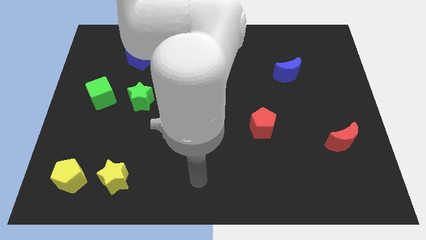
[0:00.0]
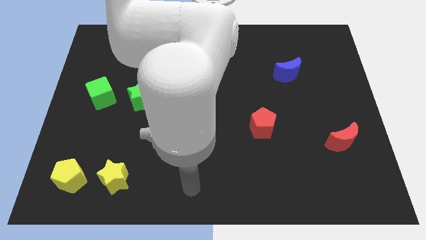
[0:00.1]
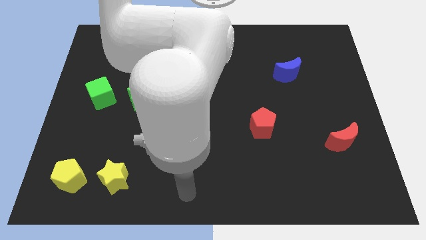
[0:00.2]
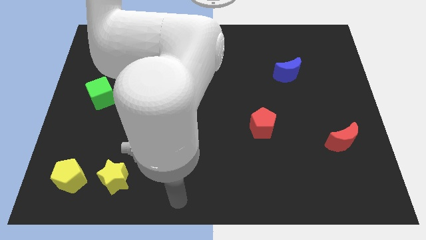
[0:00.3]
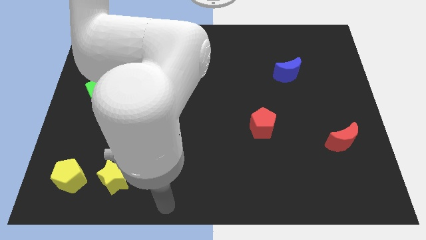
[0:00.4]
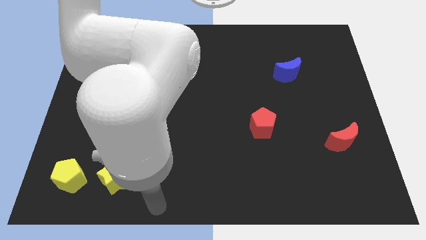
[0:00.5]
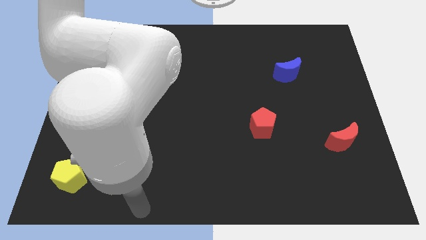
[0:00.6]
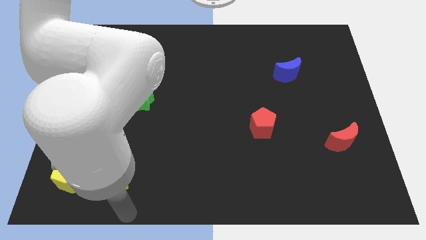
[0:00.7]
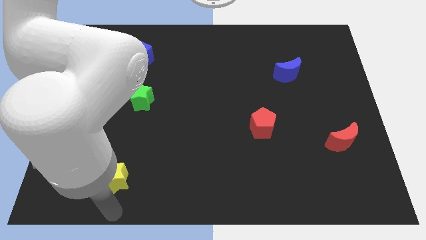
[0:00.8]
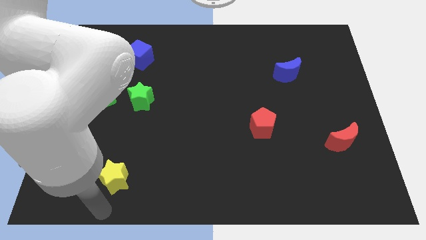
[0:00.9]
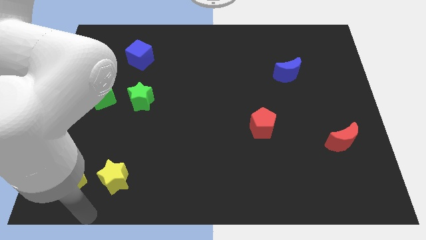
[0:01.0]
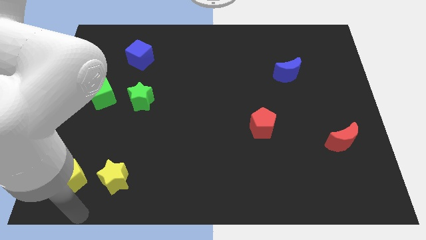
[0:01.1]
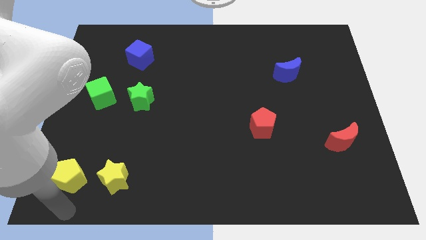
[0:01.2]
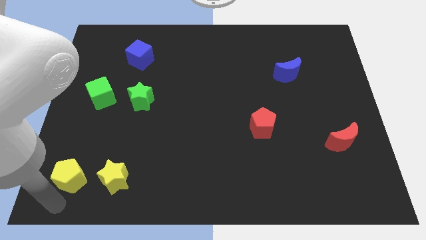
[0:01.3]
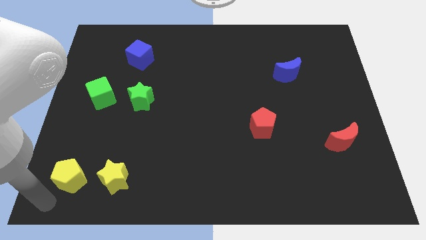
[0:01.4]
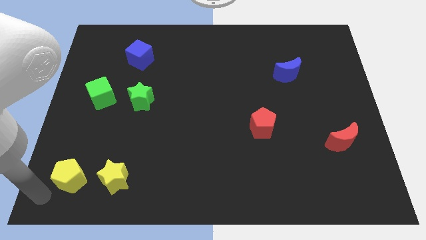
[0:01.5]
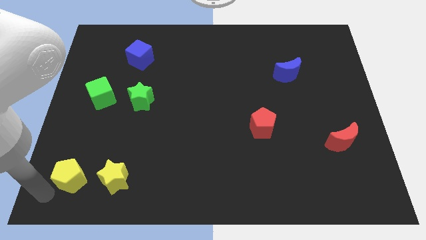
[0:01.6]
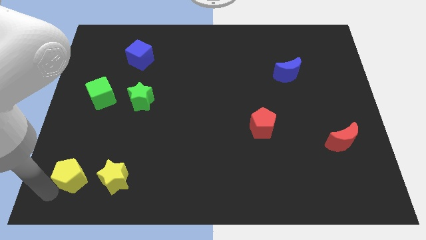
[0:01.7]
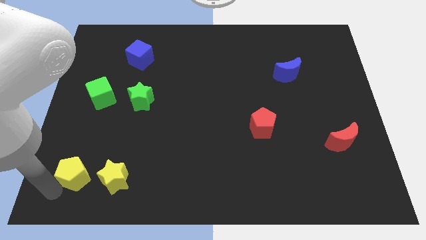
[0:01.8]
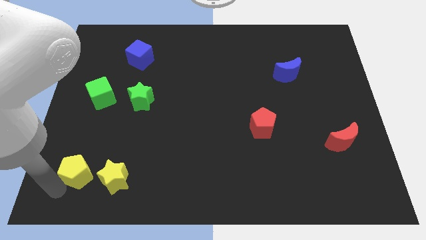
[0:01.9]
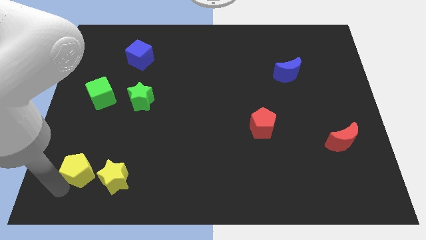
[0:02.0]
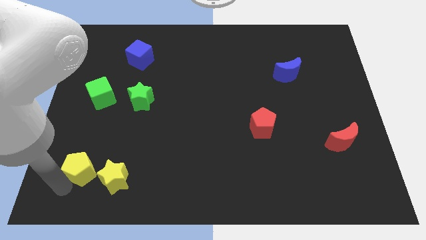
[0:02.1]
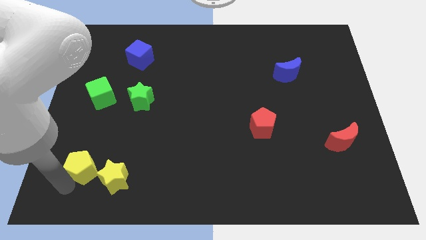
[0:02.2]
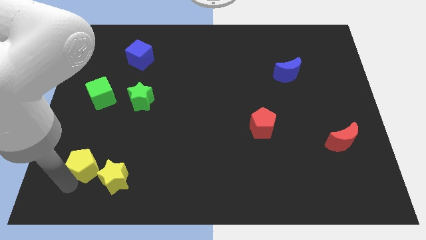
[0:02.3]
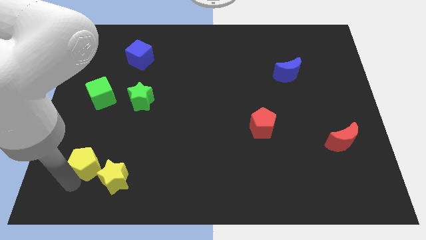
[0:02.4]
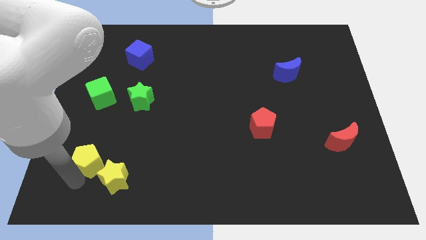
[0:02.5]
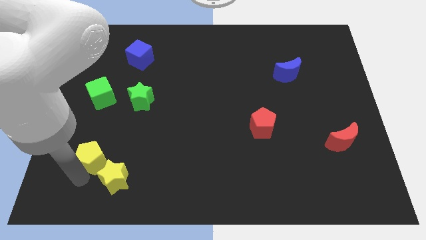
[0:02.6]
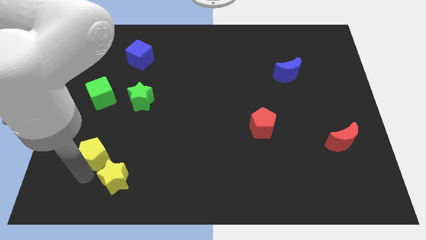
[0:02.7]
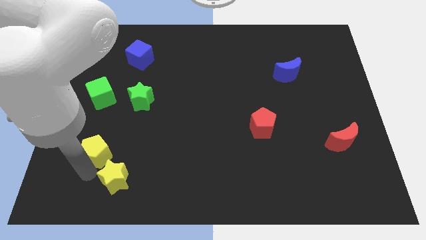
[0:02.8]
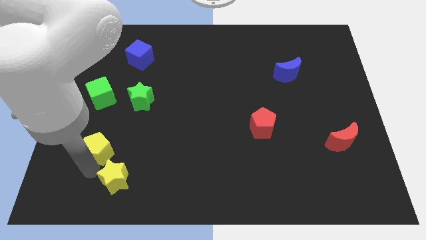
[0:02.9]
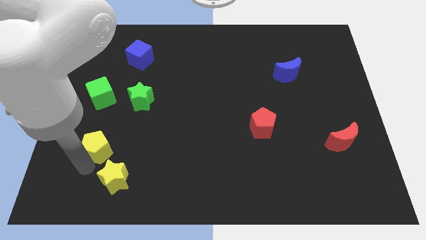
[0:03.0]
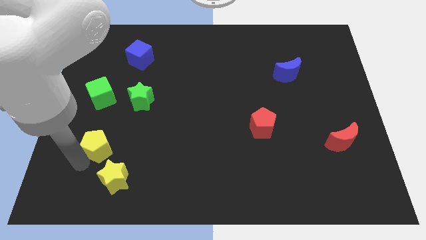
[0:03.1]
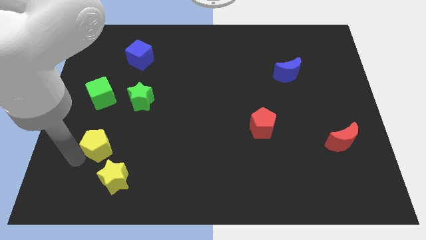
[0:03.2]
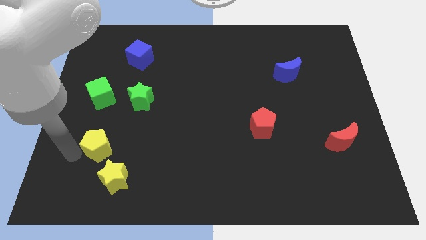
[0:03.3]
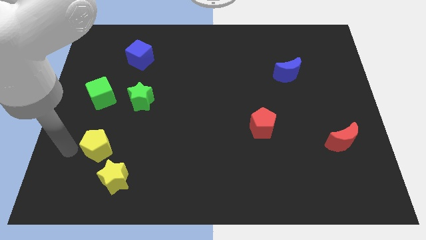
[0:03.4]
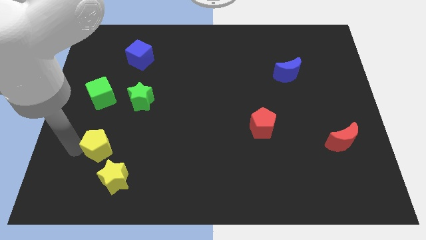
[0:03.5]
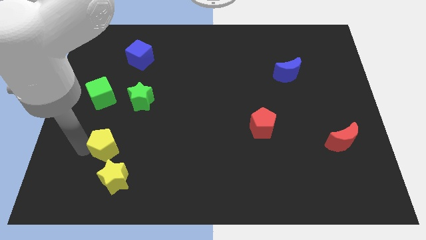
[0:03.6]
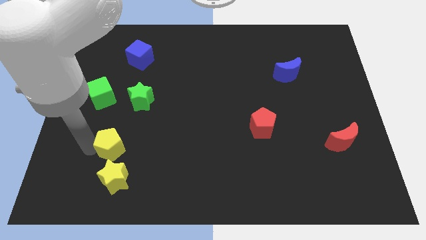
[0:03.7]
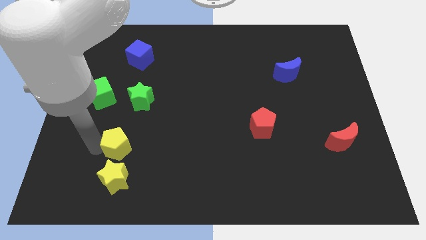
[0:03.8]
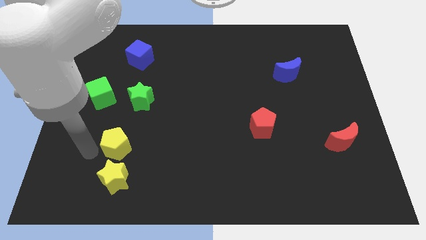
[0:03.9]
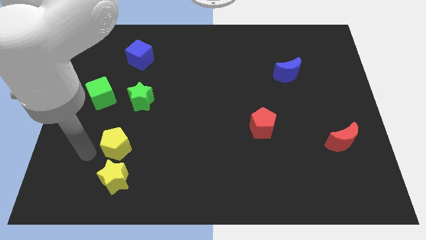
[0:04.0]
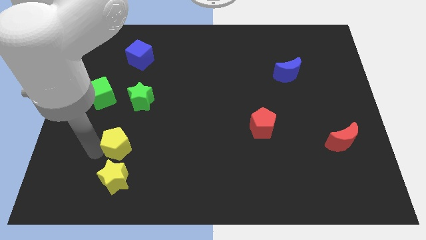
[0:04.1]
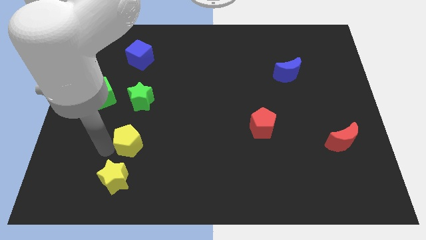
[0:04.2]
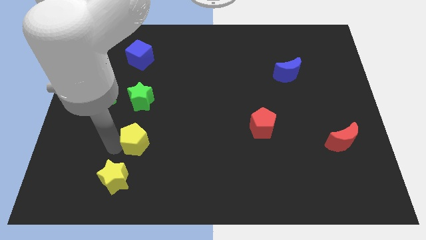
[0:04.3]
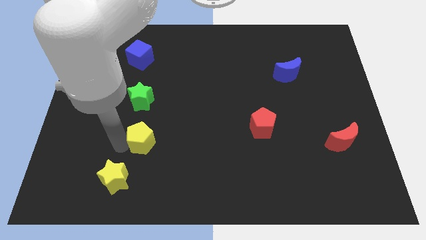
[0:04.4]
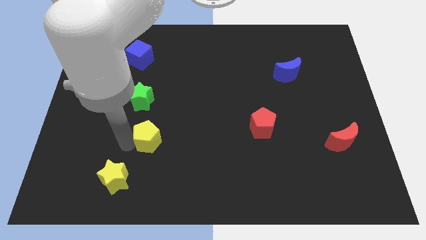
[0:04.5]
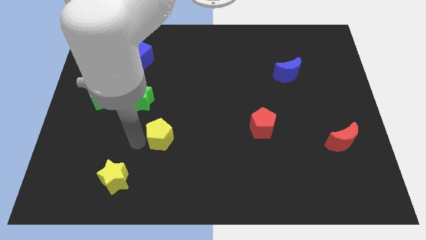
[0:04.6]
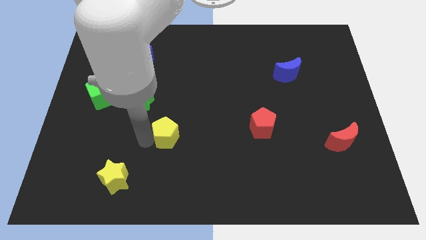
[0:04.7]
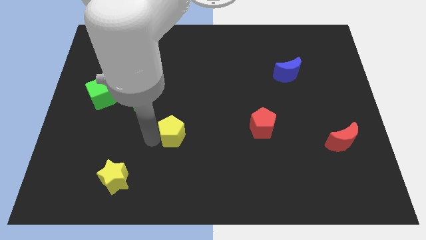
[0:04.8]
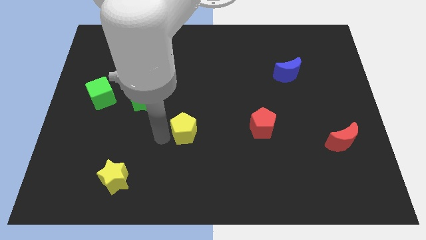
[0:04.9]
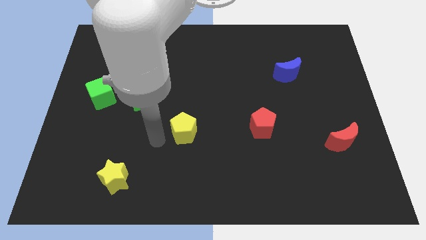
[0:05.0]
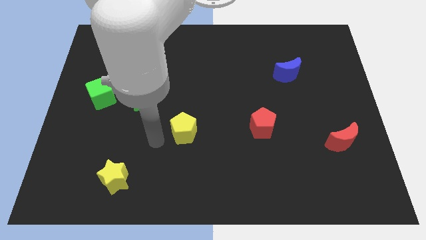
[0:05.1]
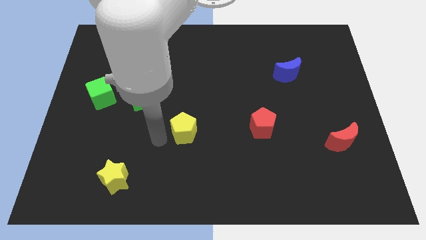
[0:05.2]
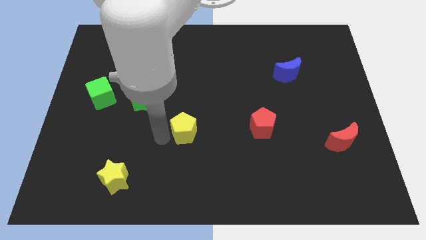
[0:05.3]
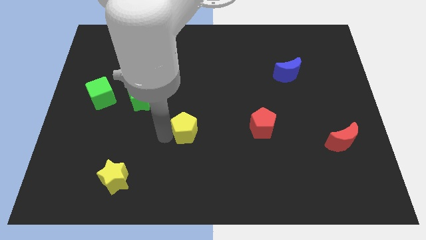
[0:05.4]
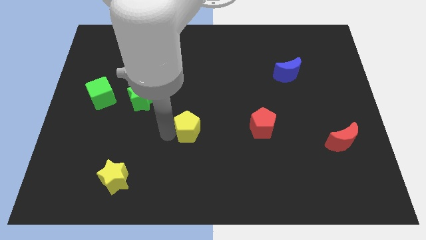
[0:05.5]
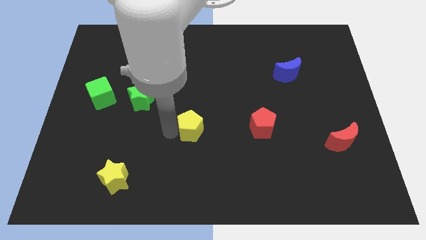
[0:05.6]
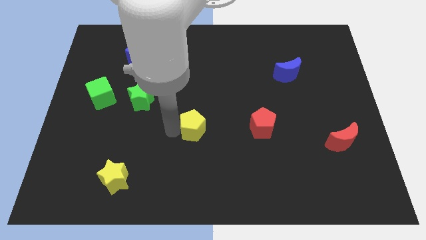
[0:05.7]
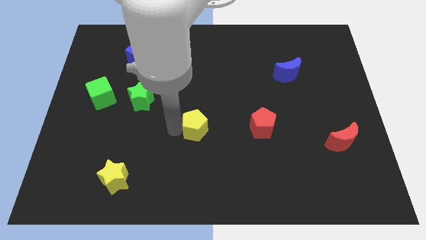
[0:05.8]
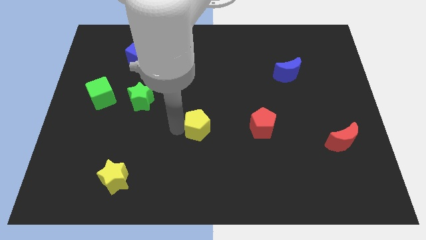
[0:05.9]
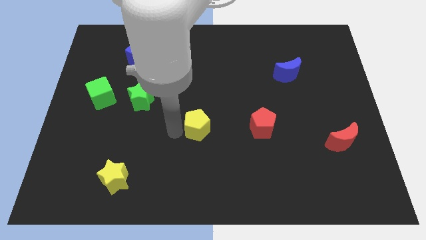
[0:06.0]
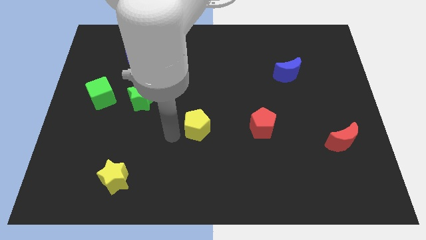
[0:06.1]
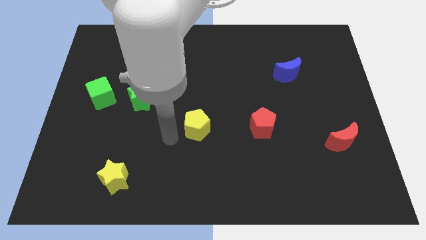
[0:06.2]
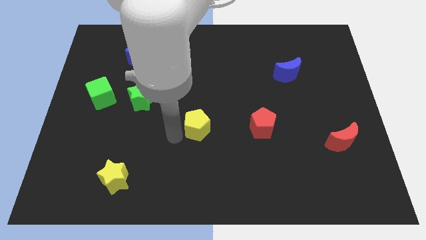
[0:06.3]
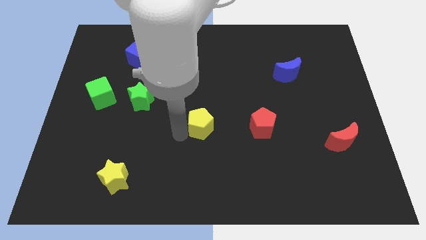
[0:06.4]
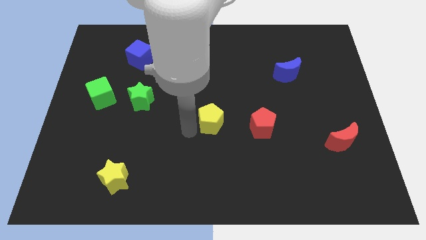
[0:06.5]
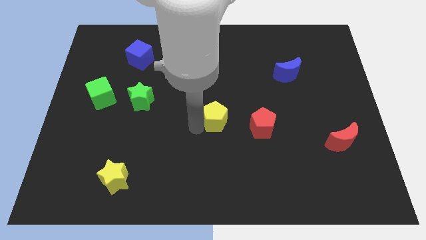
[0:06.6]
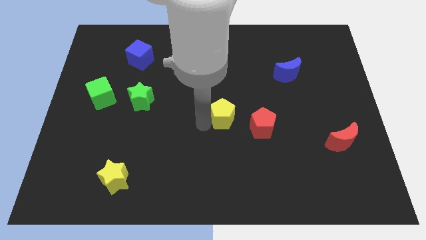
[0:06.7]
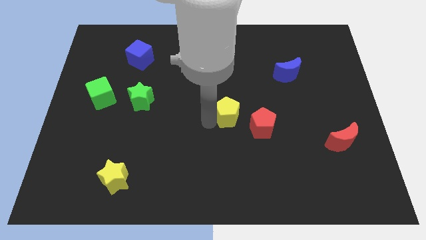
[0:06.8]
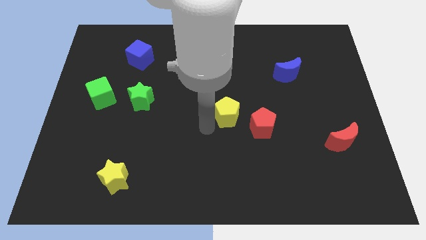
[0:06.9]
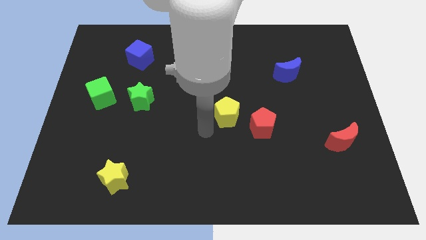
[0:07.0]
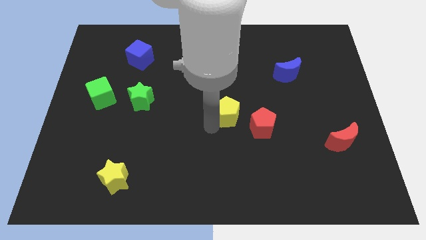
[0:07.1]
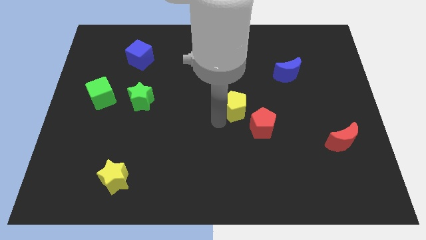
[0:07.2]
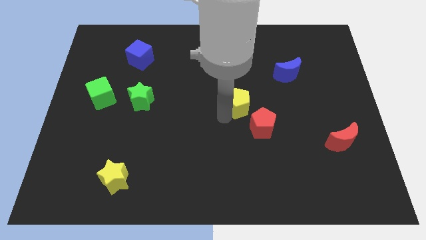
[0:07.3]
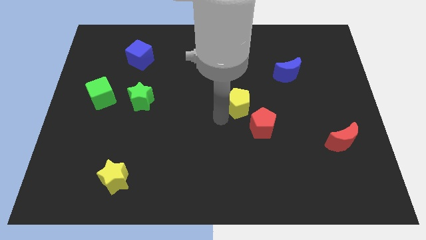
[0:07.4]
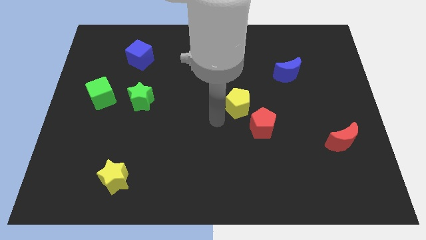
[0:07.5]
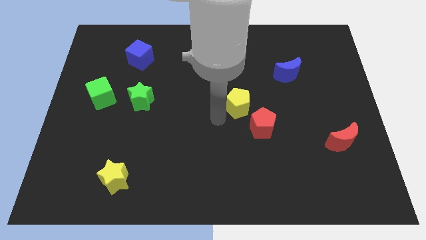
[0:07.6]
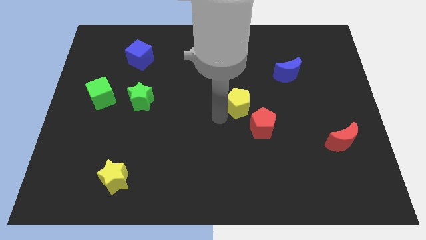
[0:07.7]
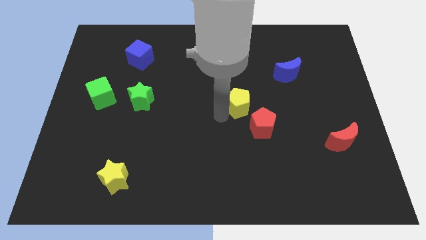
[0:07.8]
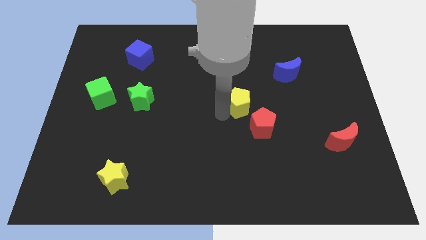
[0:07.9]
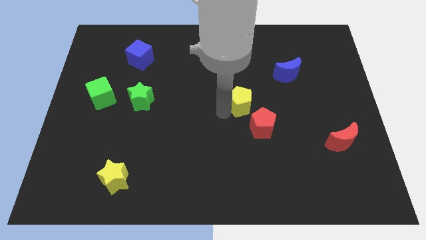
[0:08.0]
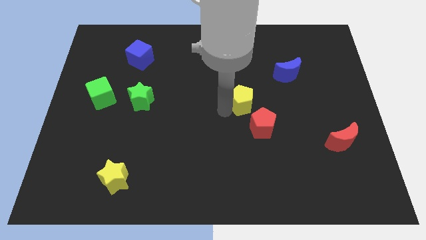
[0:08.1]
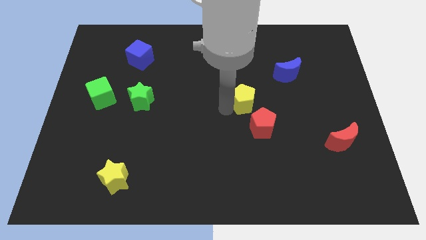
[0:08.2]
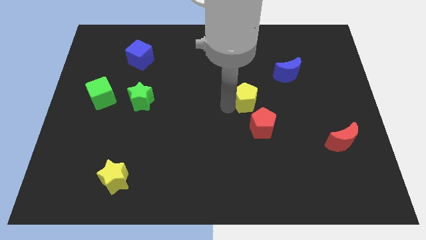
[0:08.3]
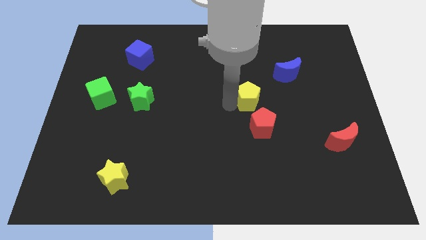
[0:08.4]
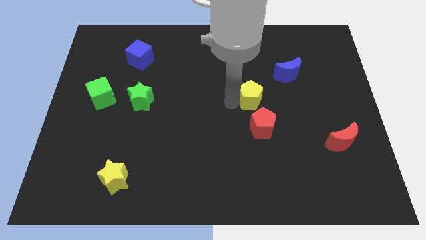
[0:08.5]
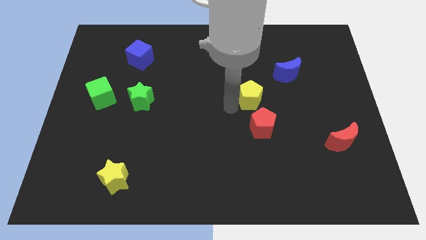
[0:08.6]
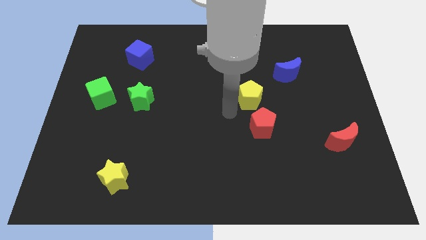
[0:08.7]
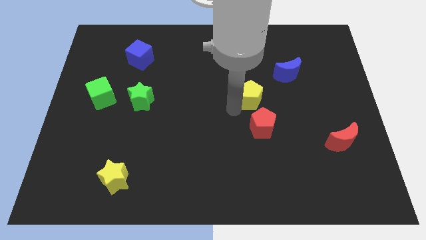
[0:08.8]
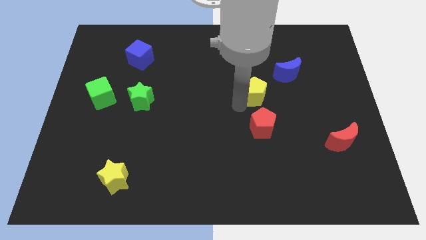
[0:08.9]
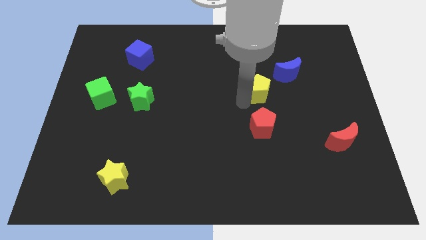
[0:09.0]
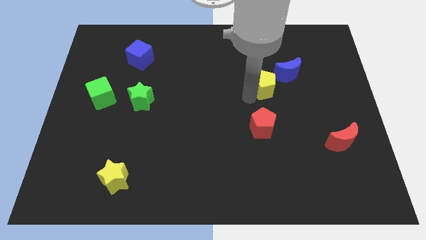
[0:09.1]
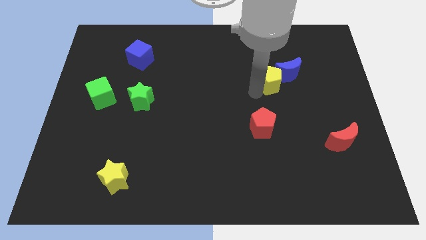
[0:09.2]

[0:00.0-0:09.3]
put the yellow pentagon close to the blue moon
